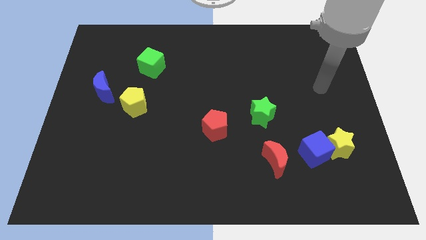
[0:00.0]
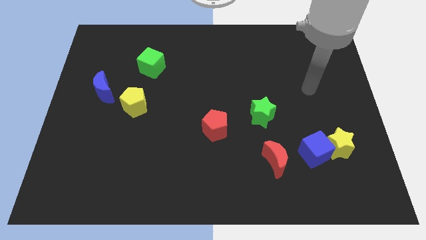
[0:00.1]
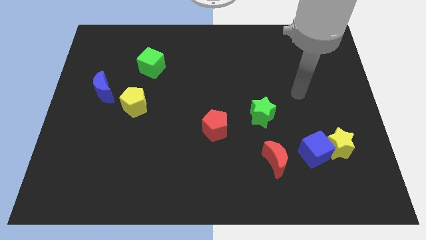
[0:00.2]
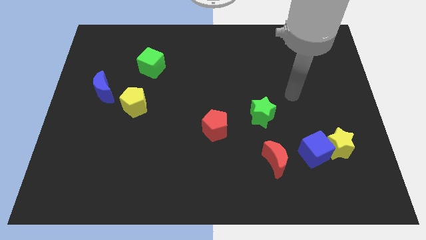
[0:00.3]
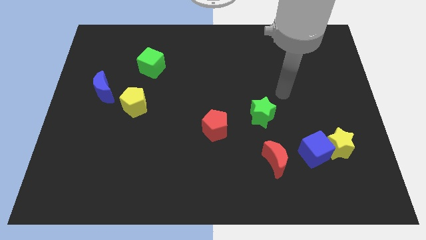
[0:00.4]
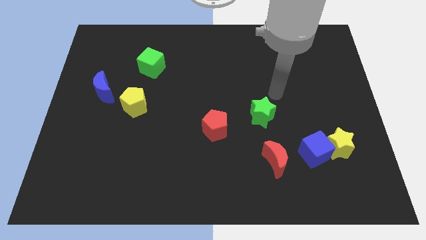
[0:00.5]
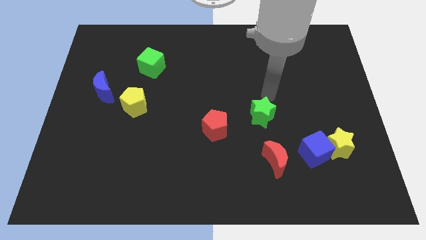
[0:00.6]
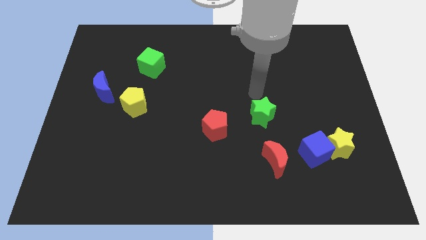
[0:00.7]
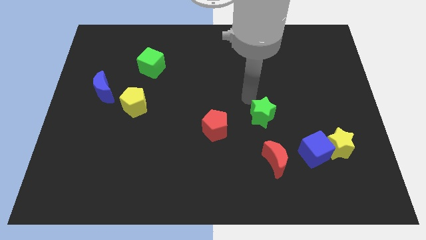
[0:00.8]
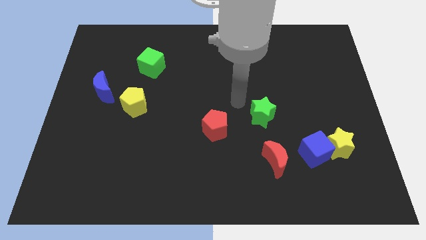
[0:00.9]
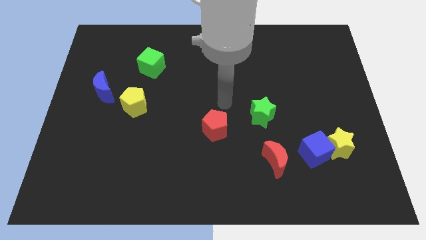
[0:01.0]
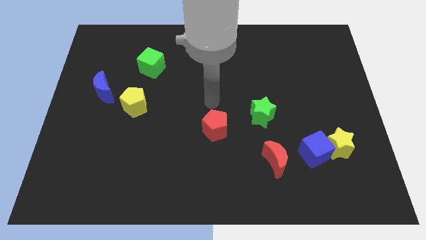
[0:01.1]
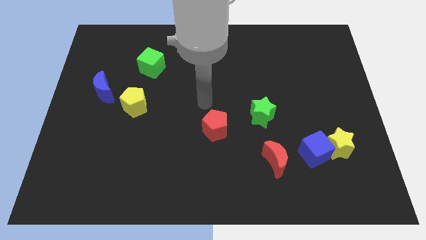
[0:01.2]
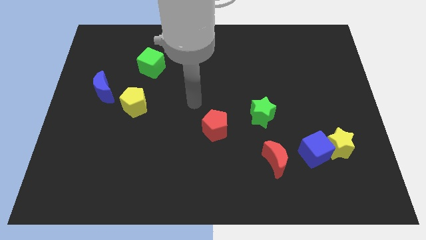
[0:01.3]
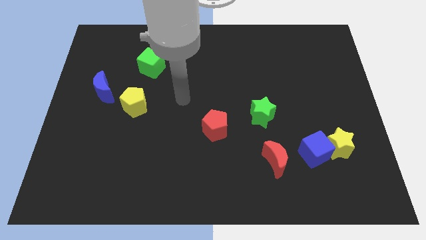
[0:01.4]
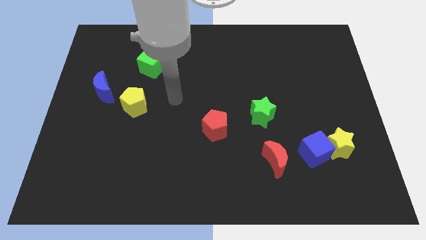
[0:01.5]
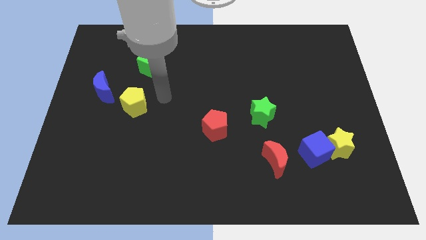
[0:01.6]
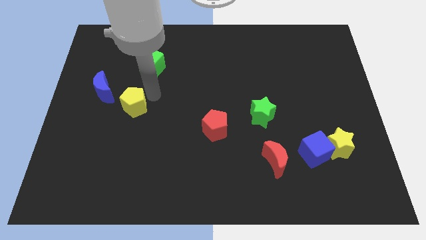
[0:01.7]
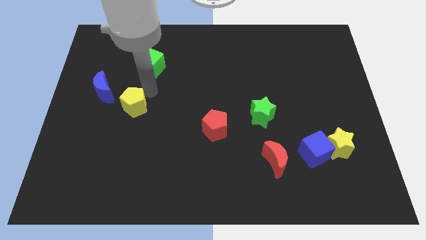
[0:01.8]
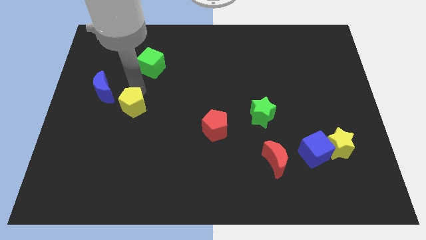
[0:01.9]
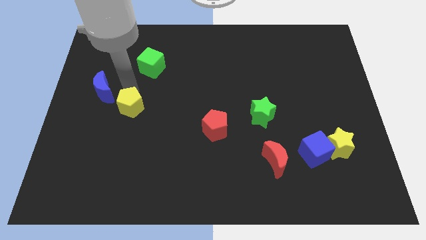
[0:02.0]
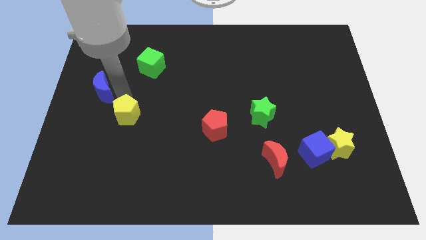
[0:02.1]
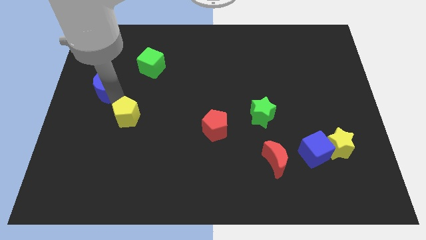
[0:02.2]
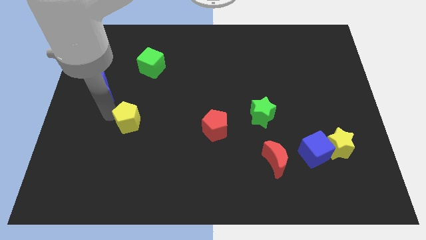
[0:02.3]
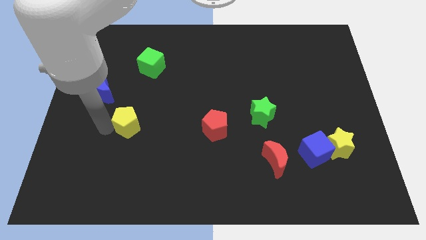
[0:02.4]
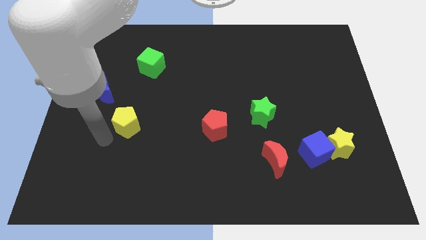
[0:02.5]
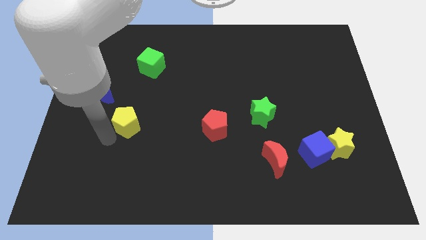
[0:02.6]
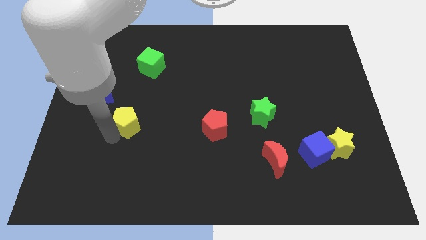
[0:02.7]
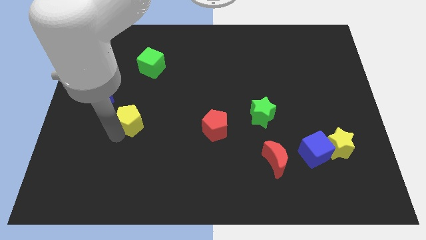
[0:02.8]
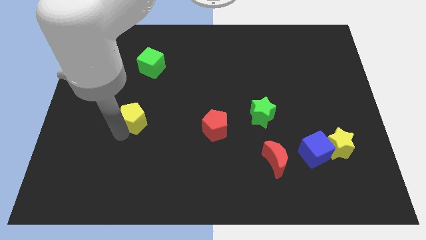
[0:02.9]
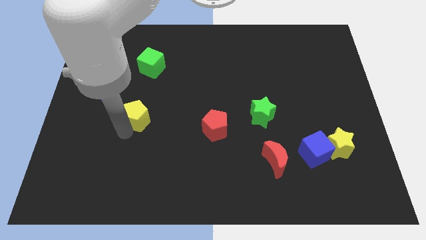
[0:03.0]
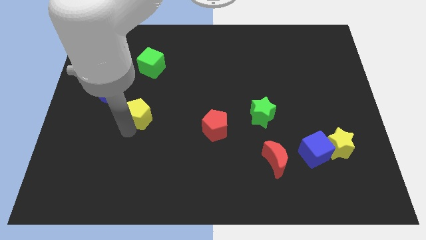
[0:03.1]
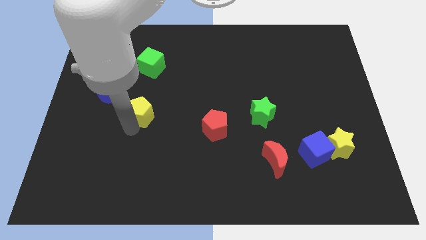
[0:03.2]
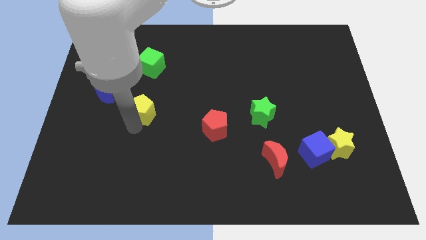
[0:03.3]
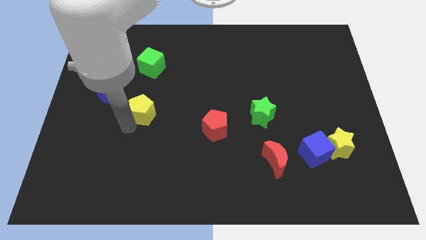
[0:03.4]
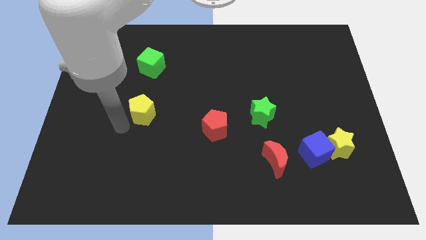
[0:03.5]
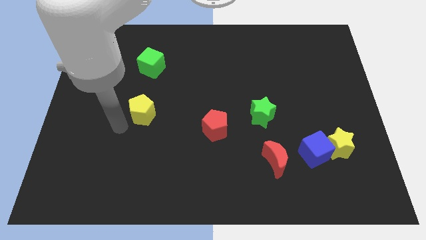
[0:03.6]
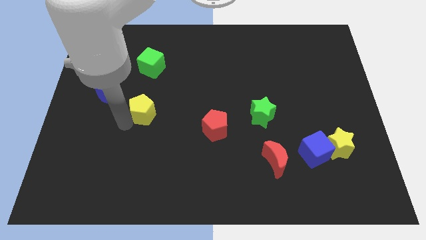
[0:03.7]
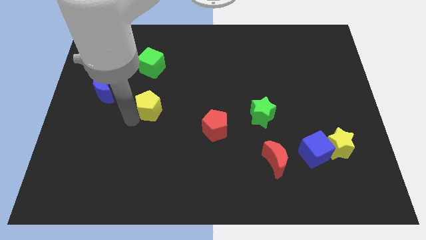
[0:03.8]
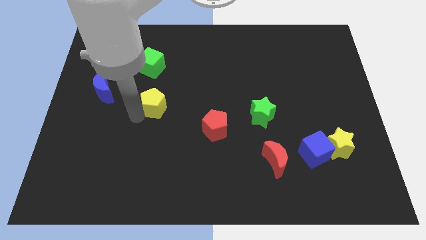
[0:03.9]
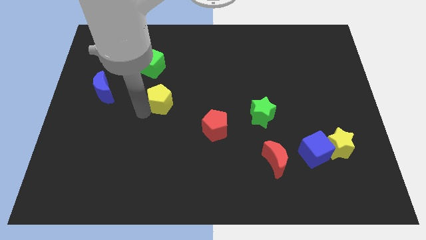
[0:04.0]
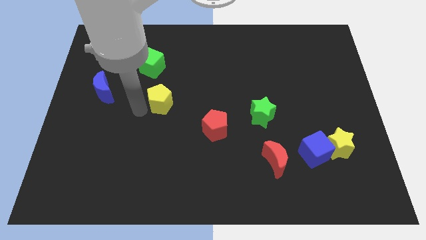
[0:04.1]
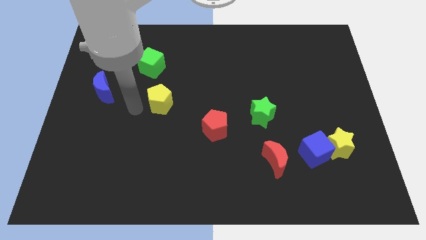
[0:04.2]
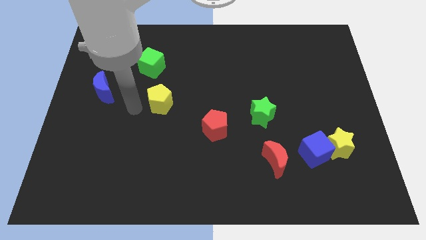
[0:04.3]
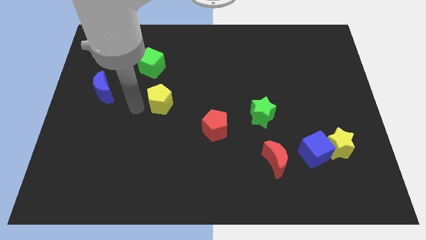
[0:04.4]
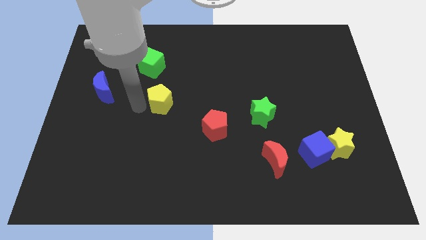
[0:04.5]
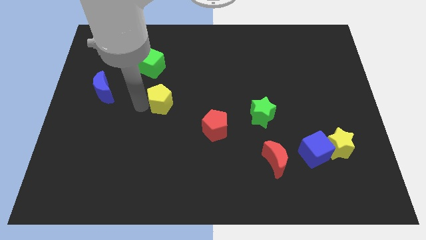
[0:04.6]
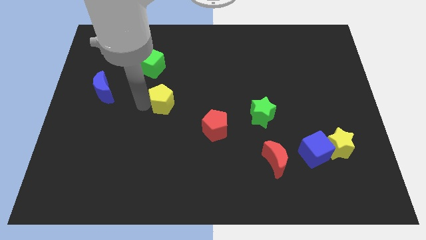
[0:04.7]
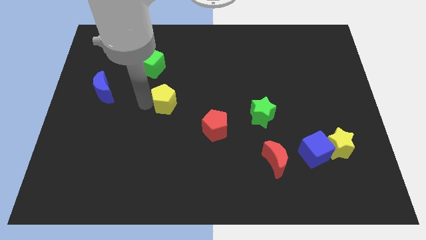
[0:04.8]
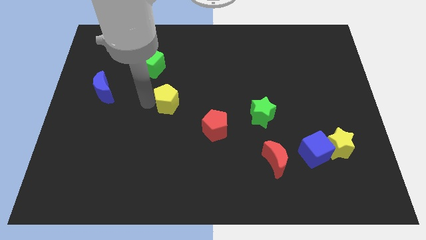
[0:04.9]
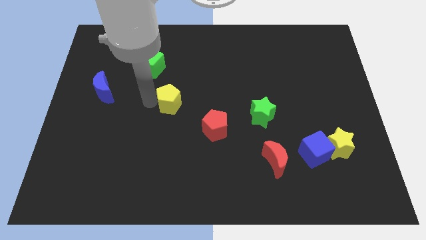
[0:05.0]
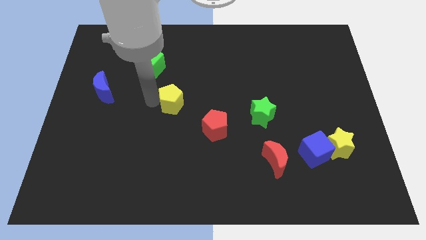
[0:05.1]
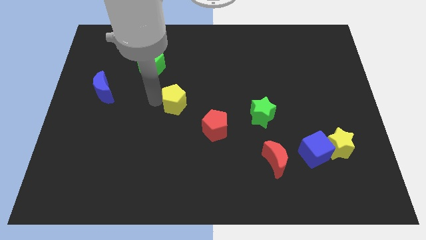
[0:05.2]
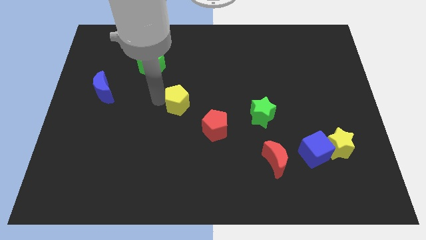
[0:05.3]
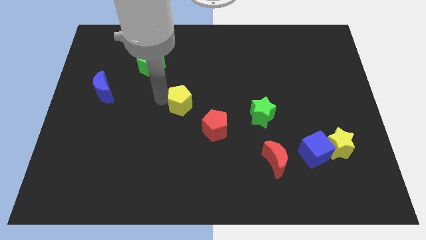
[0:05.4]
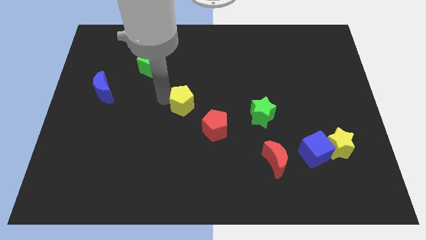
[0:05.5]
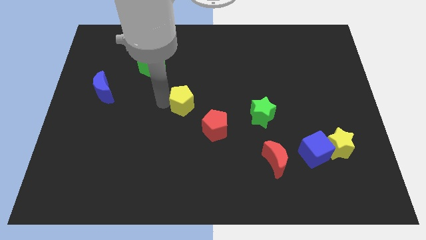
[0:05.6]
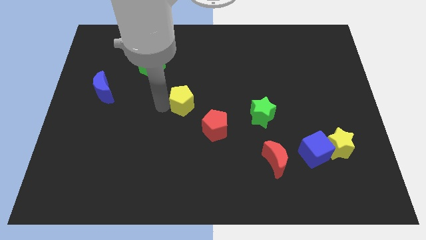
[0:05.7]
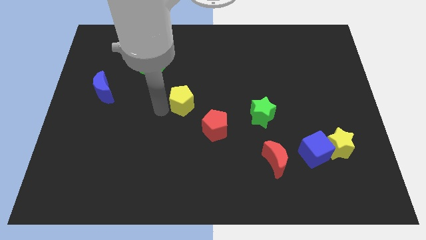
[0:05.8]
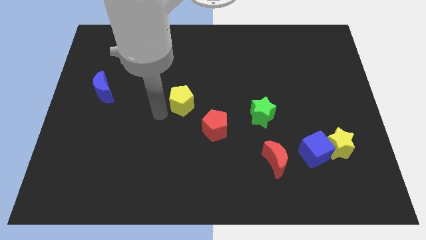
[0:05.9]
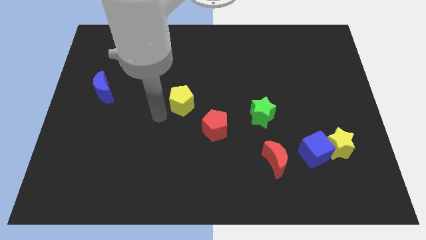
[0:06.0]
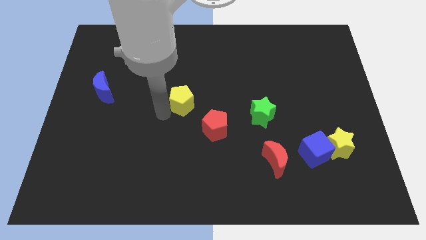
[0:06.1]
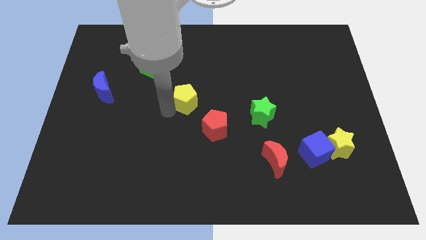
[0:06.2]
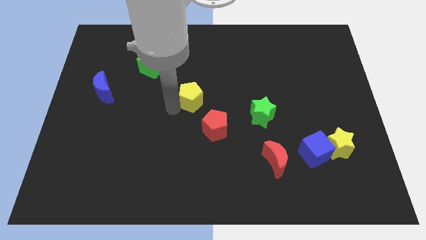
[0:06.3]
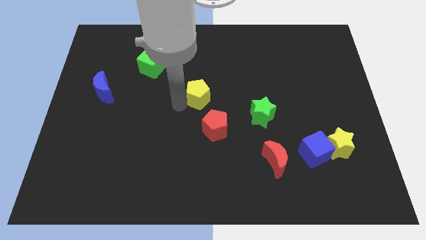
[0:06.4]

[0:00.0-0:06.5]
slide the yellow pentagon above the red pentagon

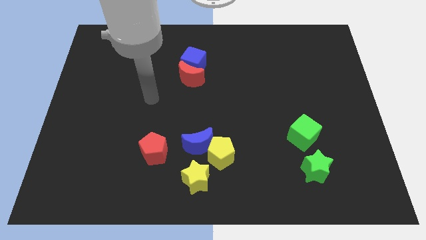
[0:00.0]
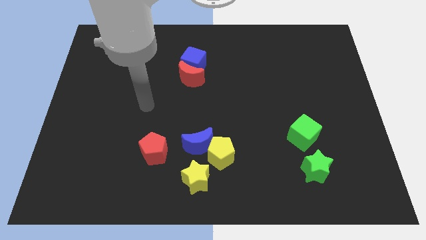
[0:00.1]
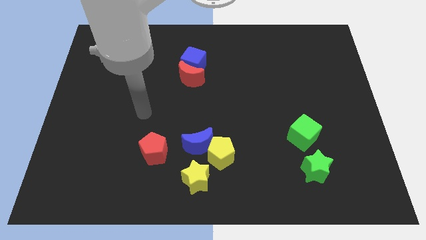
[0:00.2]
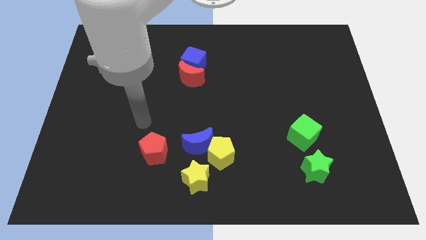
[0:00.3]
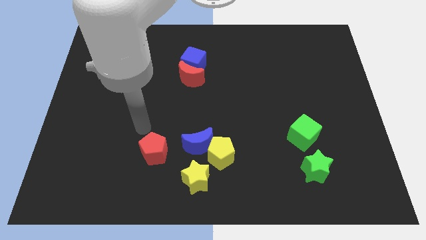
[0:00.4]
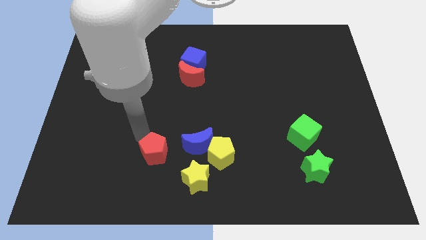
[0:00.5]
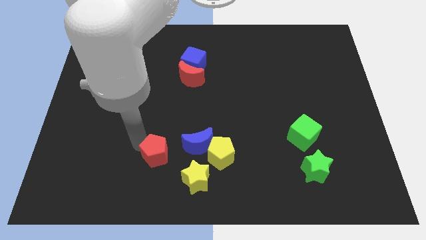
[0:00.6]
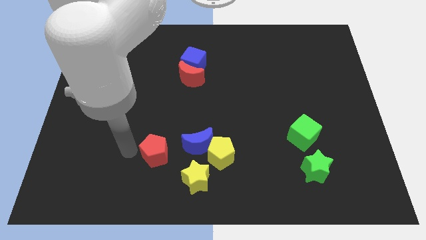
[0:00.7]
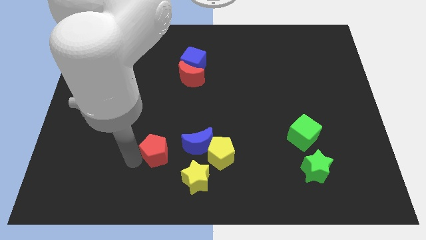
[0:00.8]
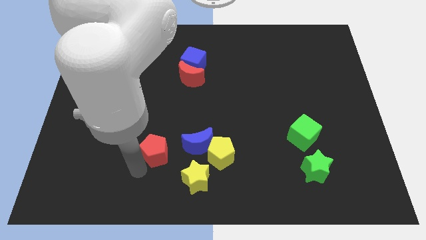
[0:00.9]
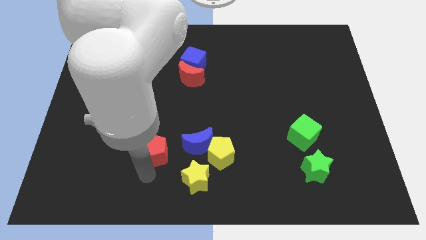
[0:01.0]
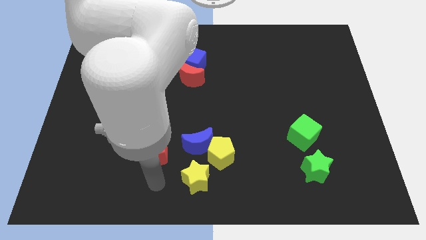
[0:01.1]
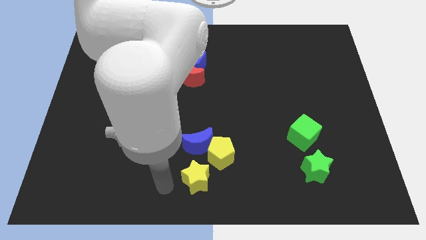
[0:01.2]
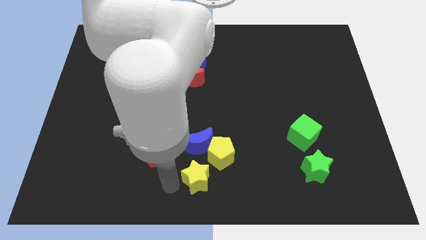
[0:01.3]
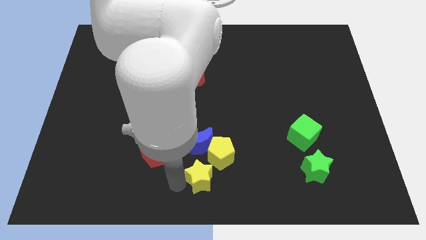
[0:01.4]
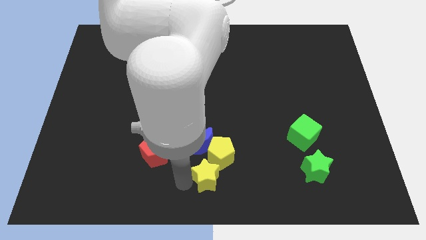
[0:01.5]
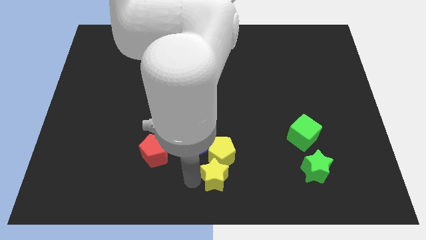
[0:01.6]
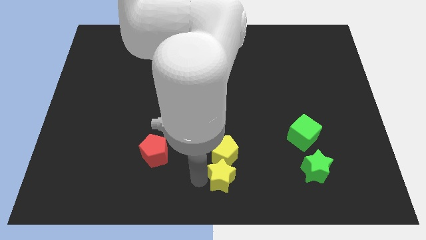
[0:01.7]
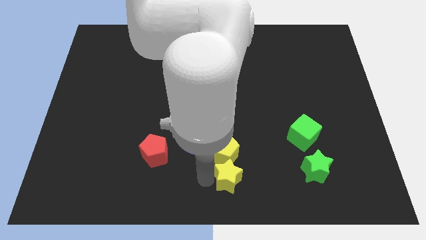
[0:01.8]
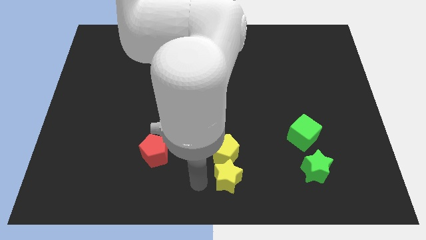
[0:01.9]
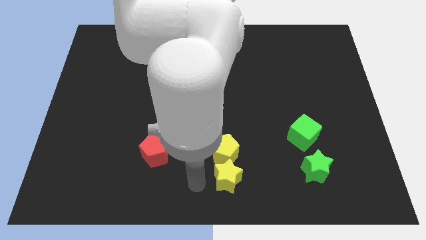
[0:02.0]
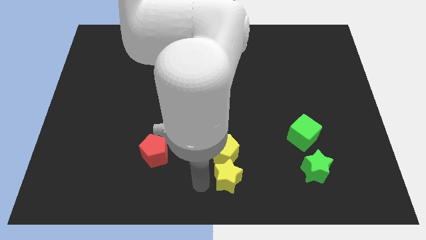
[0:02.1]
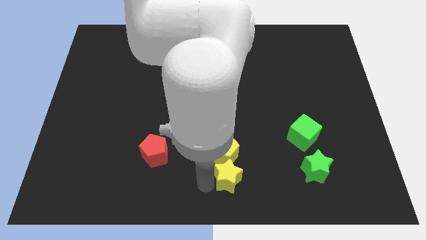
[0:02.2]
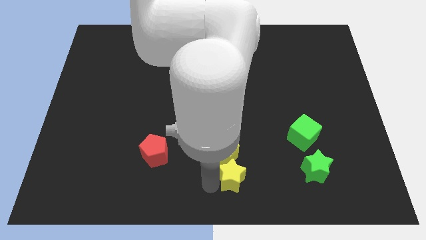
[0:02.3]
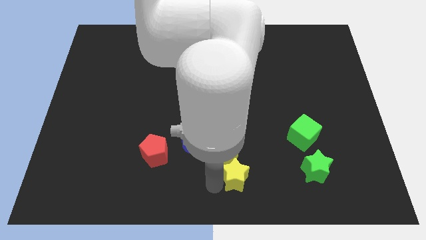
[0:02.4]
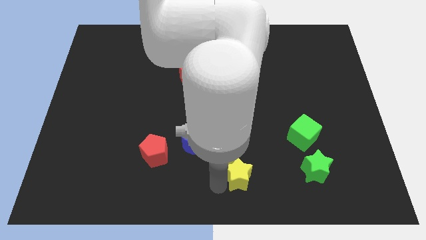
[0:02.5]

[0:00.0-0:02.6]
slide the yellow star to the left of the green star
